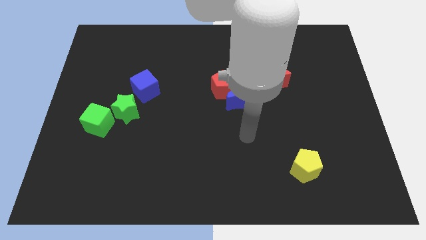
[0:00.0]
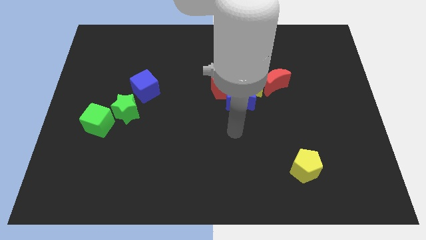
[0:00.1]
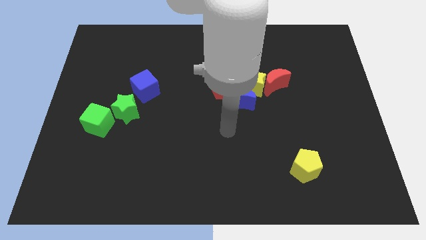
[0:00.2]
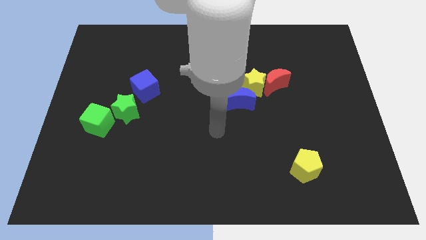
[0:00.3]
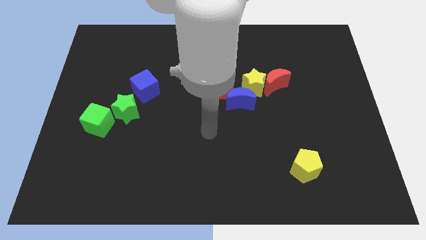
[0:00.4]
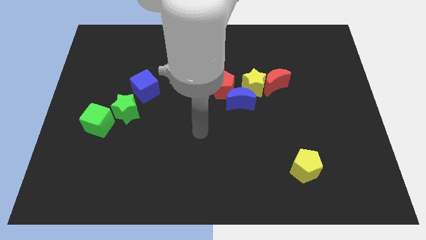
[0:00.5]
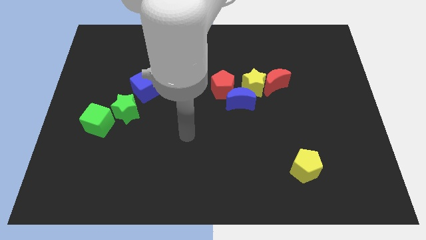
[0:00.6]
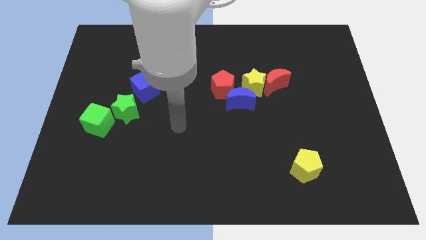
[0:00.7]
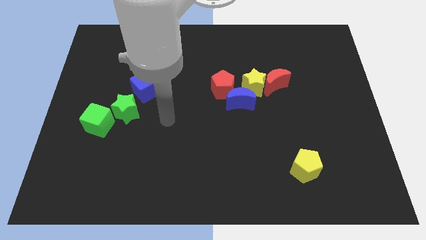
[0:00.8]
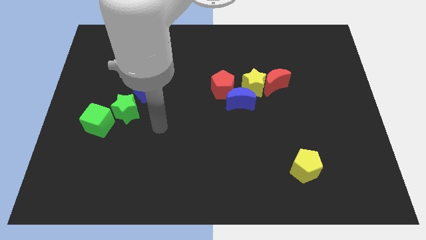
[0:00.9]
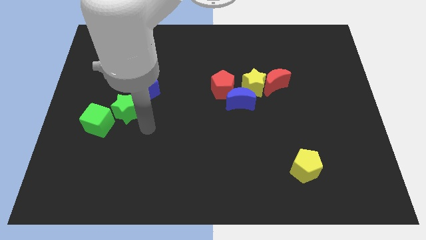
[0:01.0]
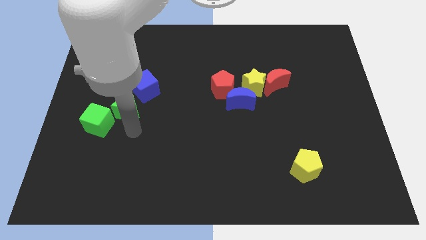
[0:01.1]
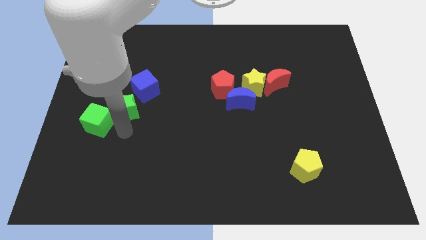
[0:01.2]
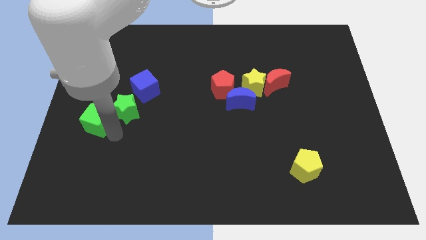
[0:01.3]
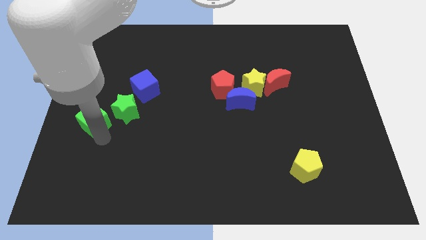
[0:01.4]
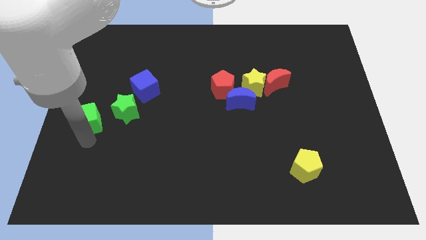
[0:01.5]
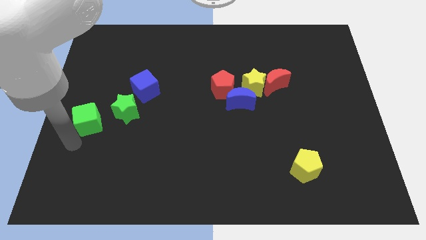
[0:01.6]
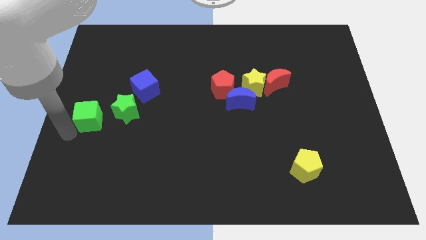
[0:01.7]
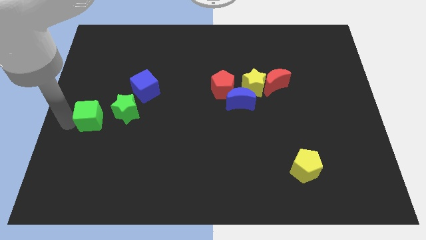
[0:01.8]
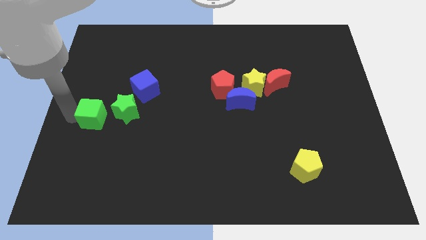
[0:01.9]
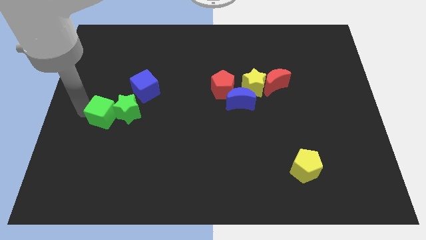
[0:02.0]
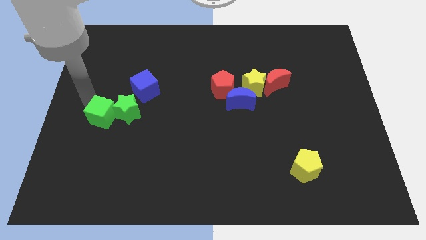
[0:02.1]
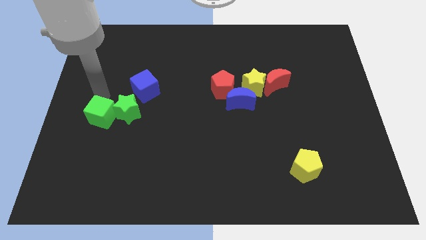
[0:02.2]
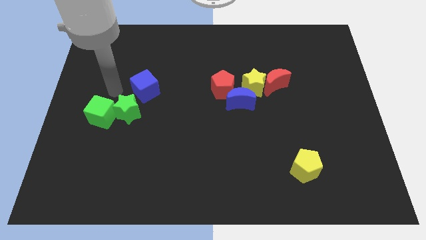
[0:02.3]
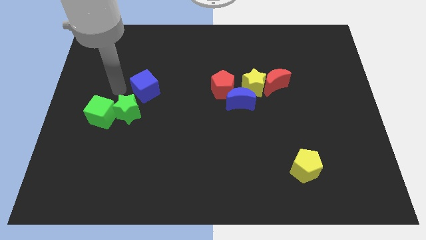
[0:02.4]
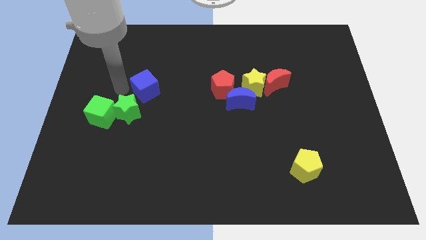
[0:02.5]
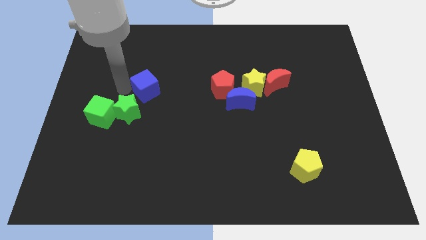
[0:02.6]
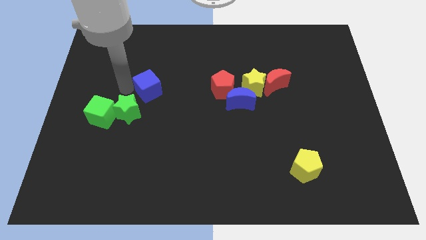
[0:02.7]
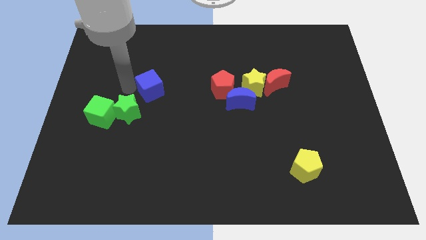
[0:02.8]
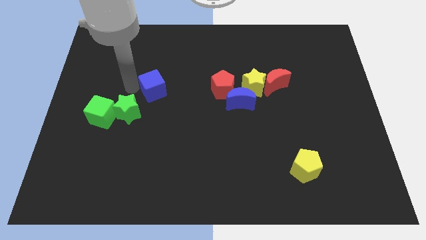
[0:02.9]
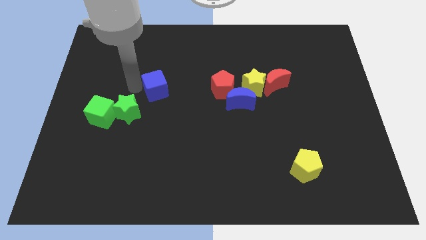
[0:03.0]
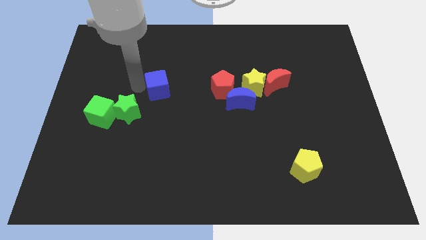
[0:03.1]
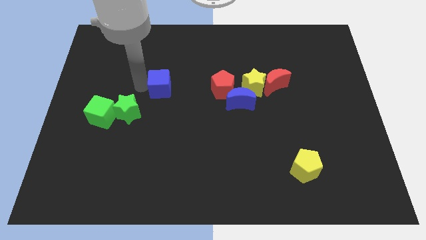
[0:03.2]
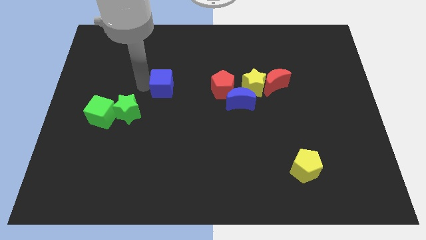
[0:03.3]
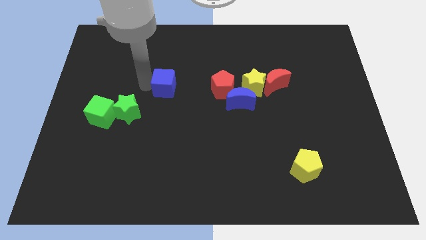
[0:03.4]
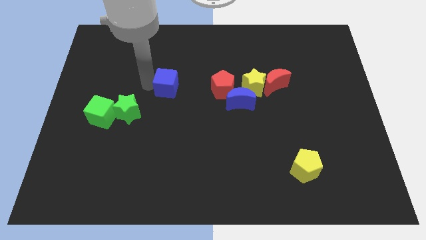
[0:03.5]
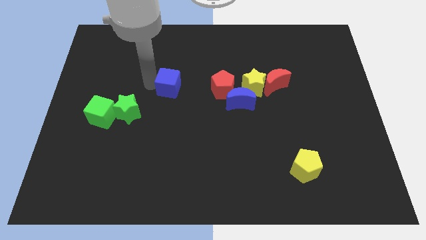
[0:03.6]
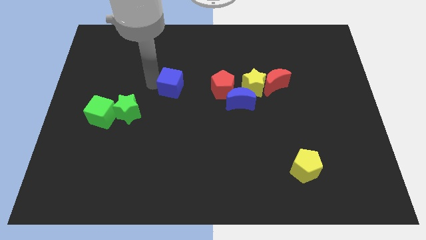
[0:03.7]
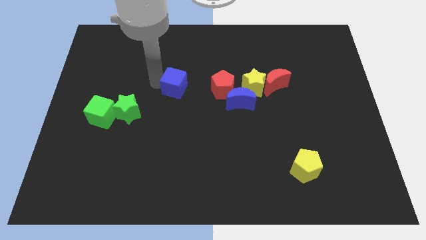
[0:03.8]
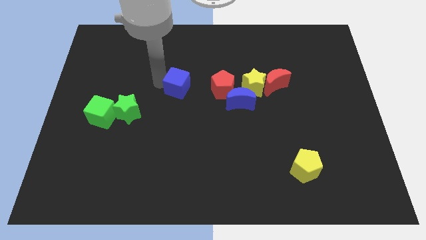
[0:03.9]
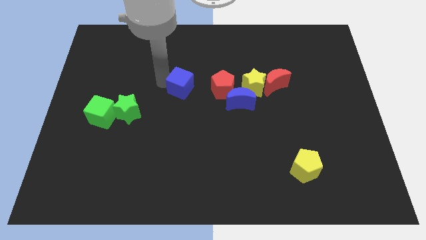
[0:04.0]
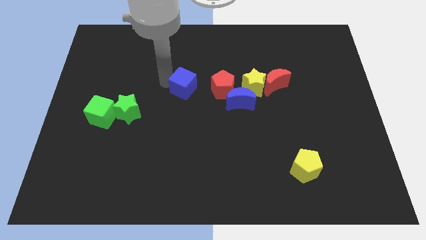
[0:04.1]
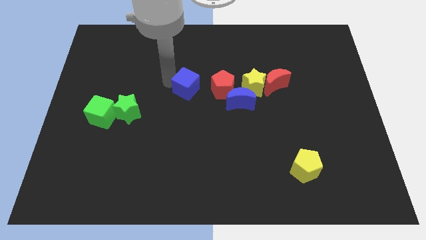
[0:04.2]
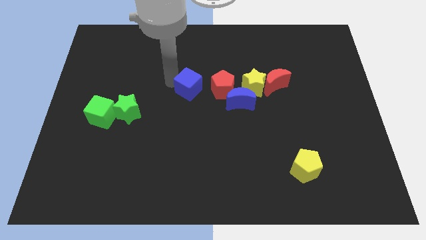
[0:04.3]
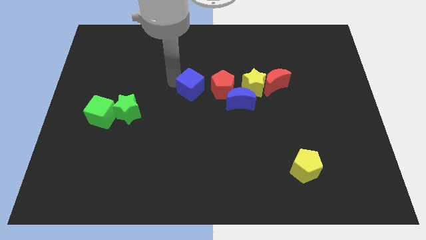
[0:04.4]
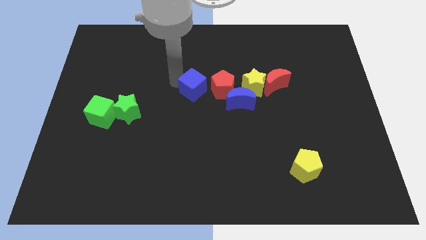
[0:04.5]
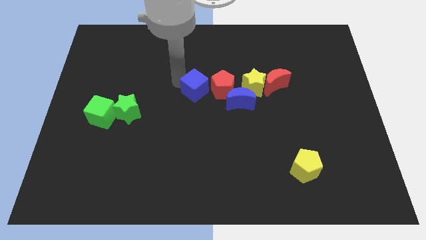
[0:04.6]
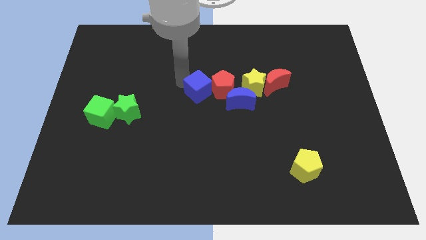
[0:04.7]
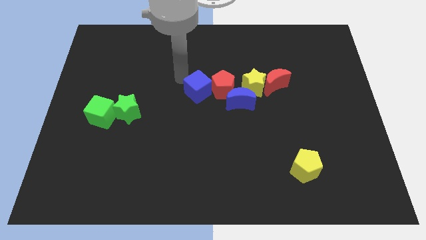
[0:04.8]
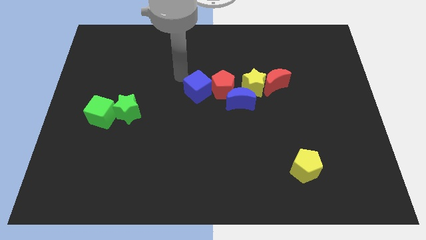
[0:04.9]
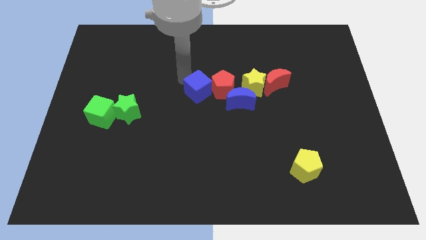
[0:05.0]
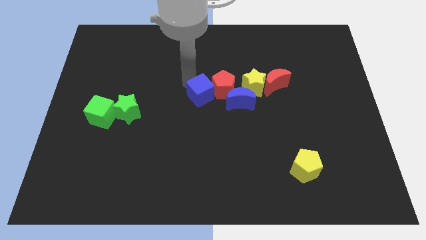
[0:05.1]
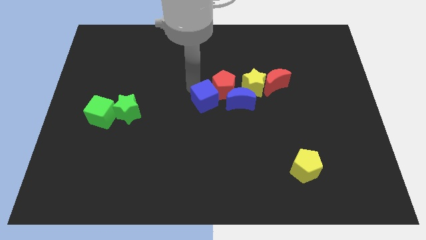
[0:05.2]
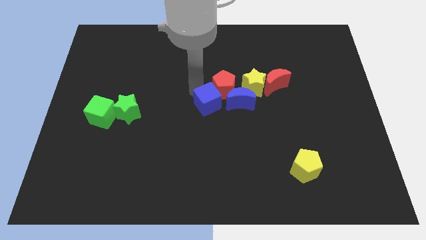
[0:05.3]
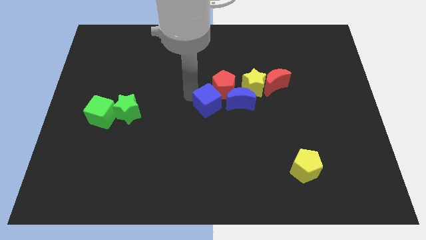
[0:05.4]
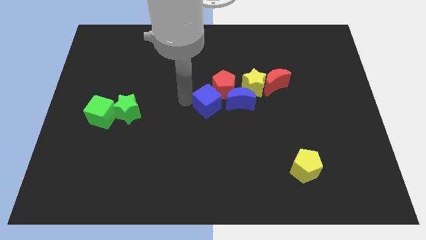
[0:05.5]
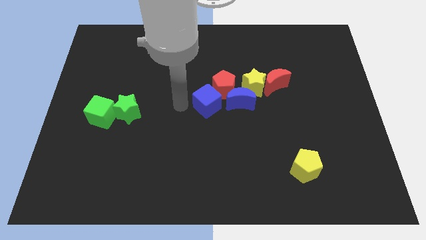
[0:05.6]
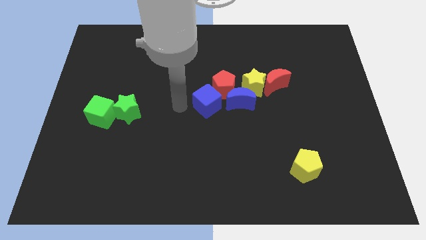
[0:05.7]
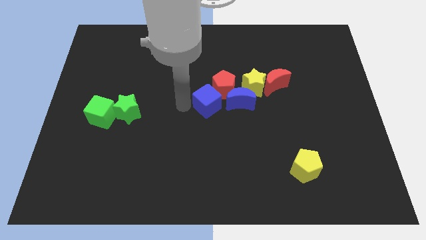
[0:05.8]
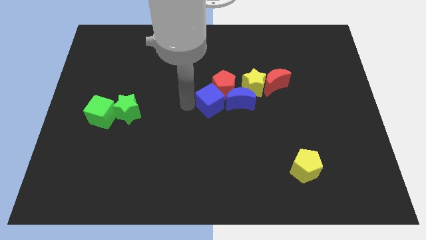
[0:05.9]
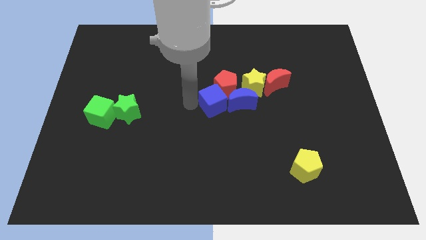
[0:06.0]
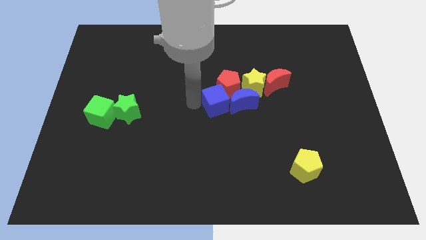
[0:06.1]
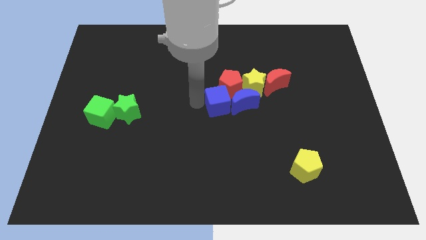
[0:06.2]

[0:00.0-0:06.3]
move the blue cube to the blue moon

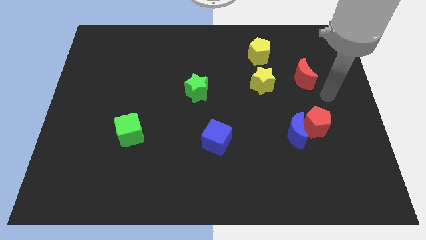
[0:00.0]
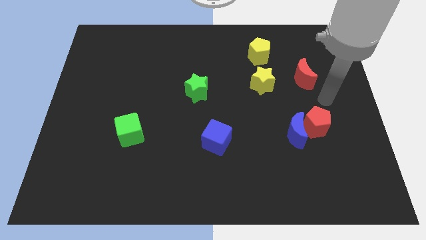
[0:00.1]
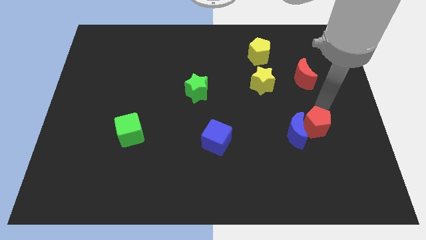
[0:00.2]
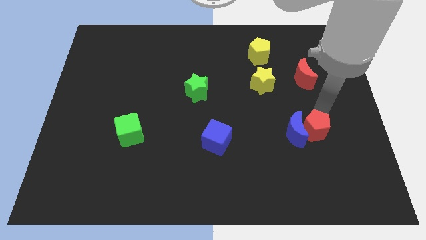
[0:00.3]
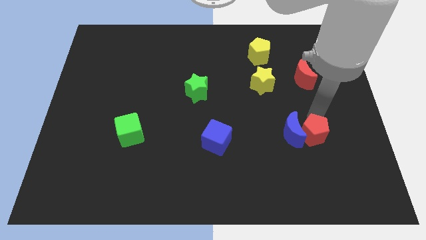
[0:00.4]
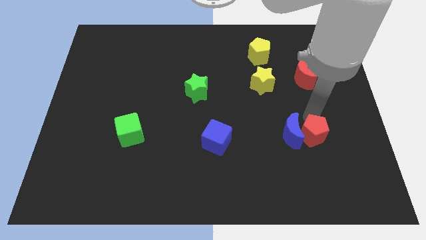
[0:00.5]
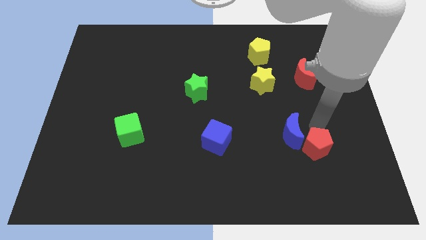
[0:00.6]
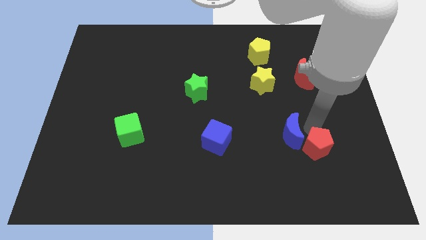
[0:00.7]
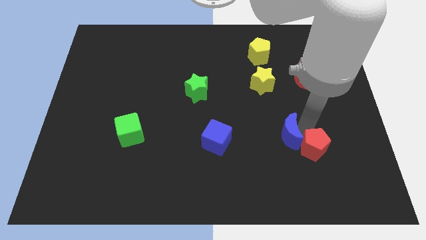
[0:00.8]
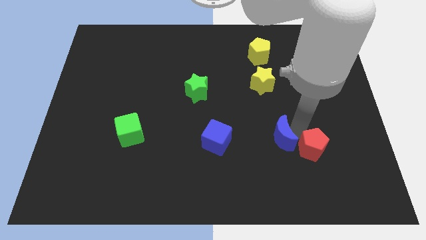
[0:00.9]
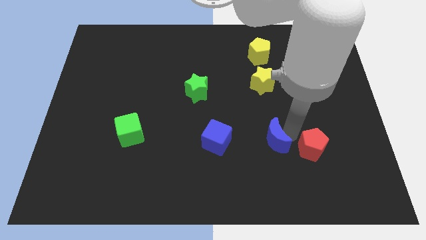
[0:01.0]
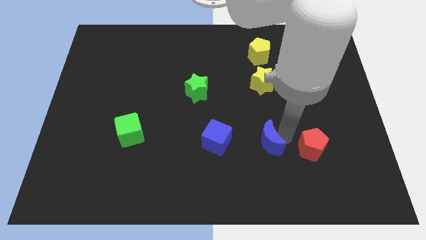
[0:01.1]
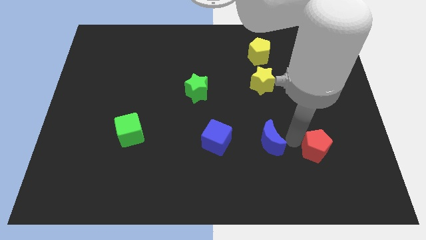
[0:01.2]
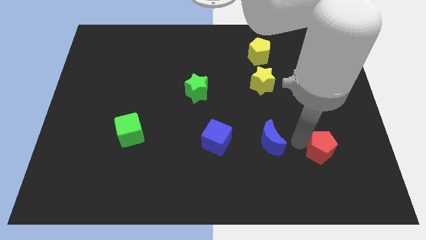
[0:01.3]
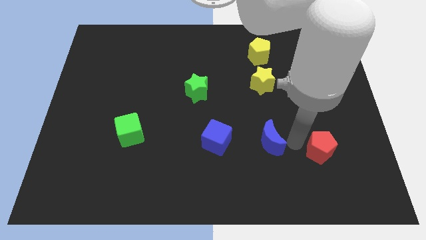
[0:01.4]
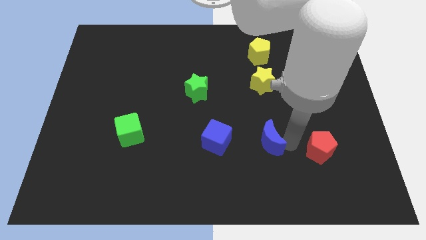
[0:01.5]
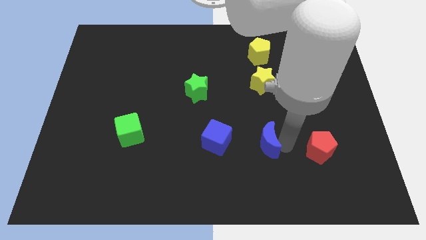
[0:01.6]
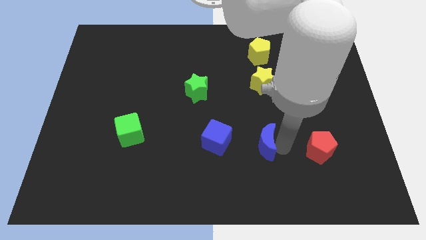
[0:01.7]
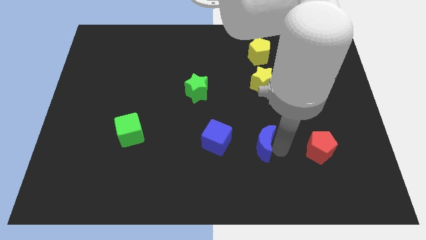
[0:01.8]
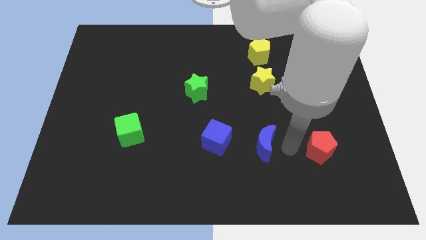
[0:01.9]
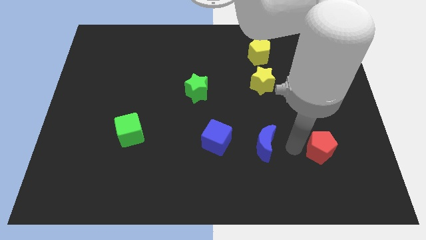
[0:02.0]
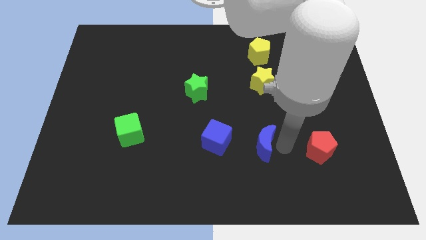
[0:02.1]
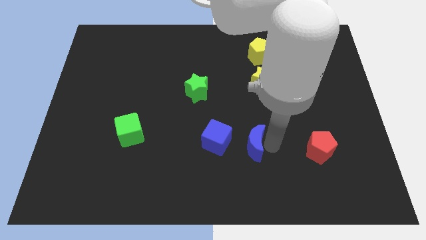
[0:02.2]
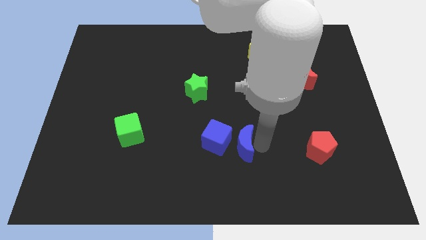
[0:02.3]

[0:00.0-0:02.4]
put the blue moon close to the blue cube
